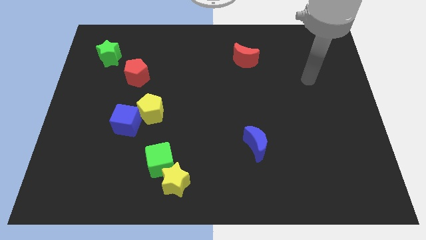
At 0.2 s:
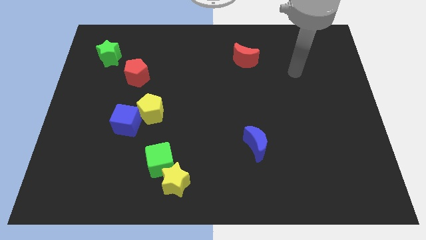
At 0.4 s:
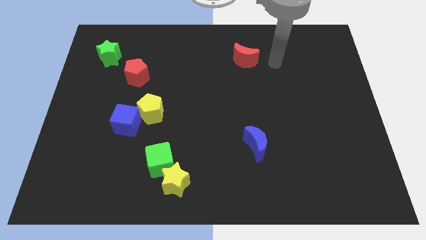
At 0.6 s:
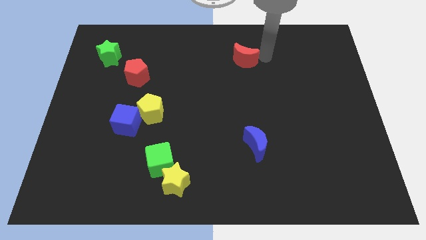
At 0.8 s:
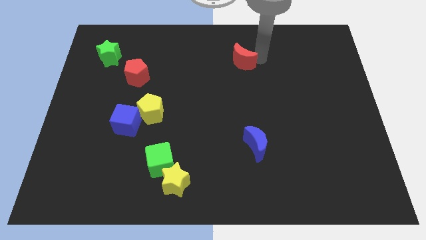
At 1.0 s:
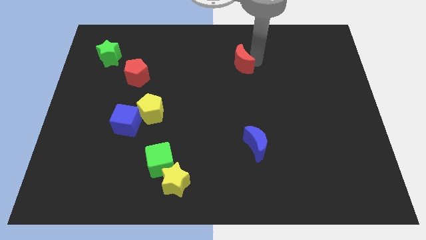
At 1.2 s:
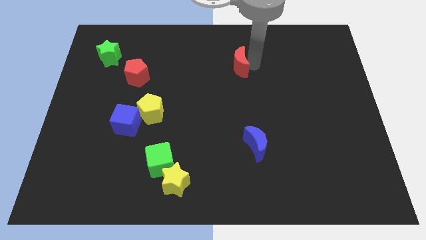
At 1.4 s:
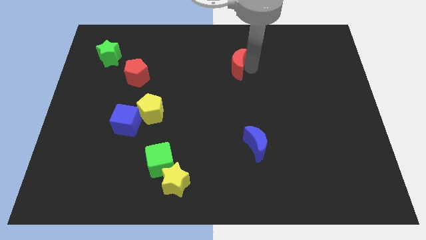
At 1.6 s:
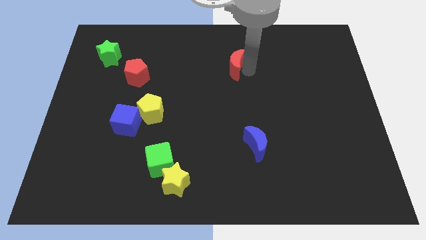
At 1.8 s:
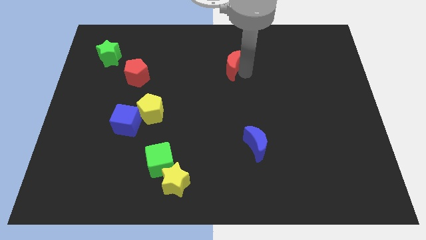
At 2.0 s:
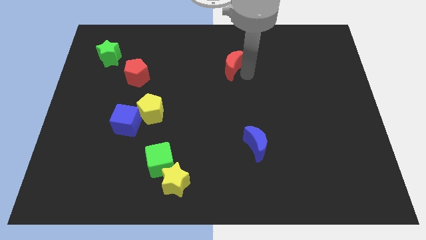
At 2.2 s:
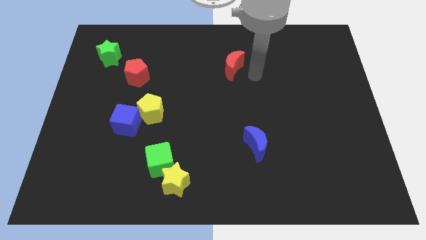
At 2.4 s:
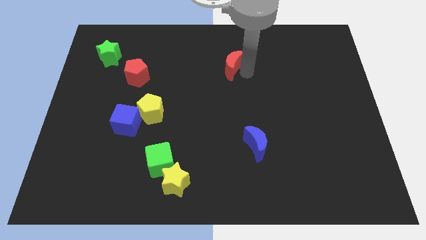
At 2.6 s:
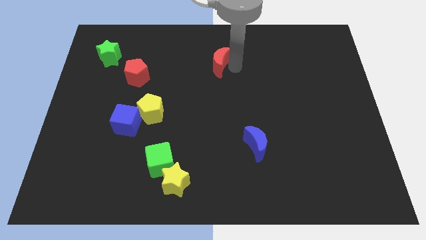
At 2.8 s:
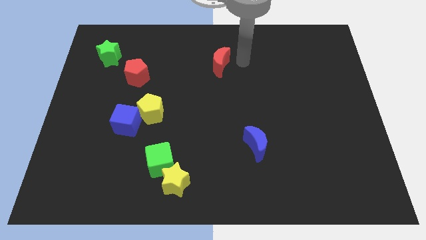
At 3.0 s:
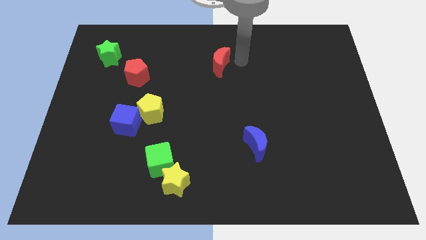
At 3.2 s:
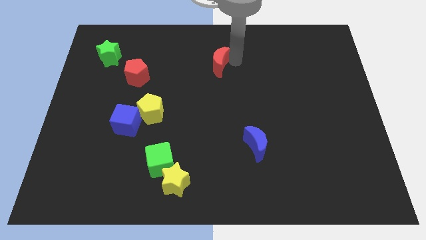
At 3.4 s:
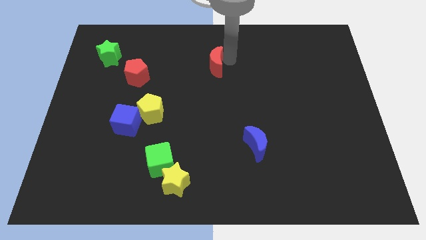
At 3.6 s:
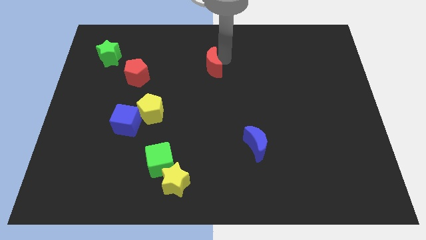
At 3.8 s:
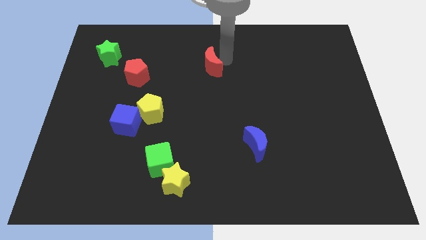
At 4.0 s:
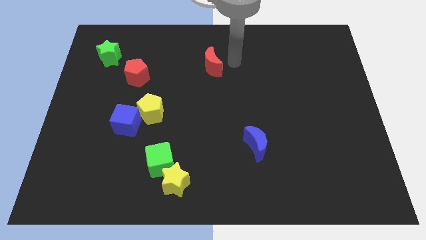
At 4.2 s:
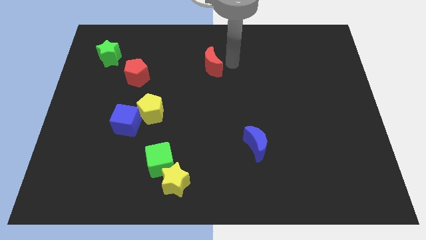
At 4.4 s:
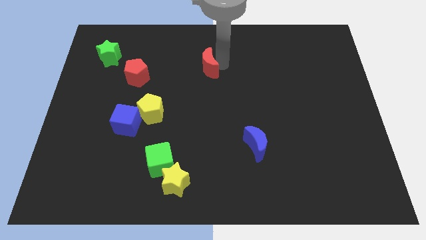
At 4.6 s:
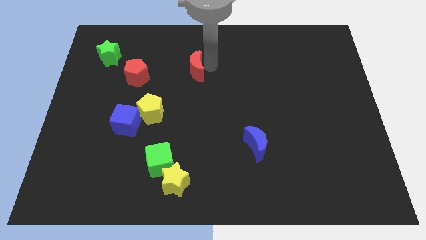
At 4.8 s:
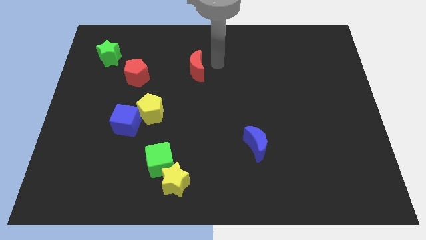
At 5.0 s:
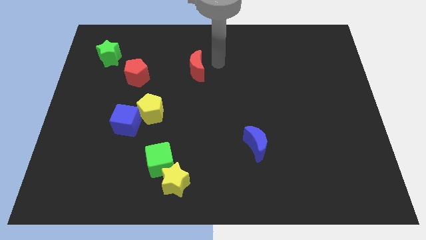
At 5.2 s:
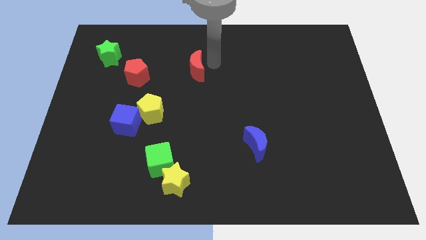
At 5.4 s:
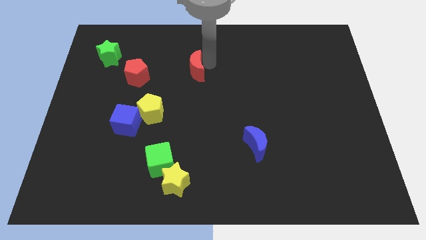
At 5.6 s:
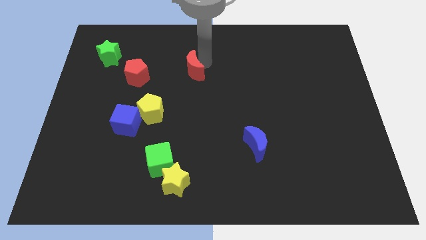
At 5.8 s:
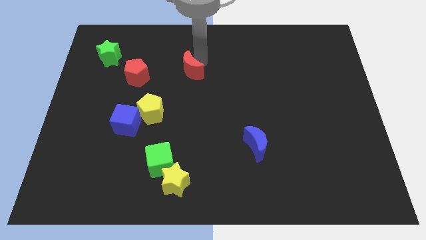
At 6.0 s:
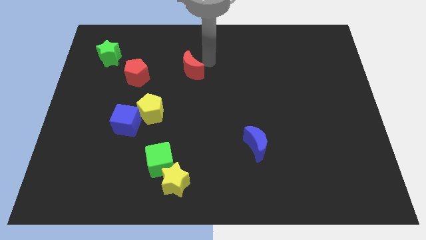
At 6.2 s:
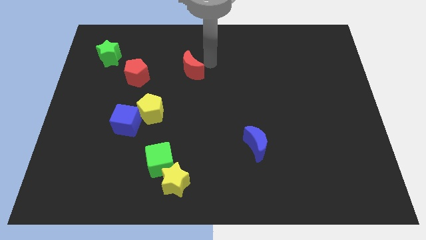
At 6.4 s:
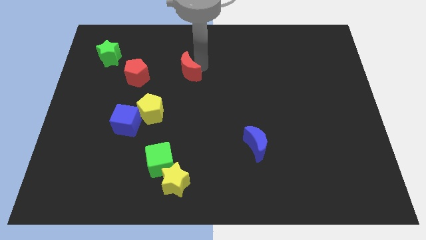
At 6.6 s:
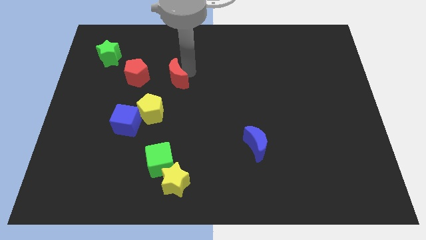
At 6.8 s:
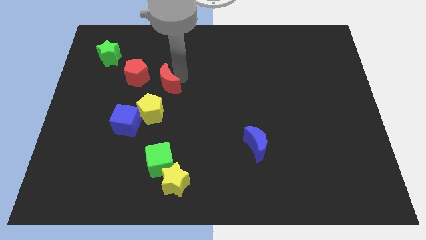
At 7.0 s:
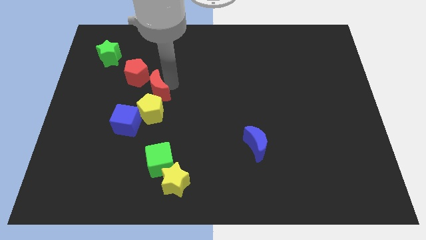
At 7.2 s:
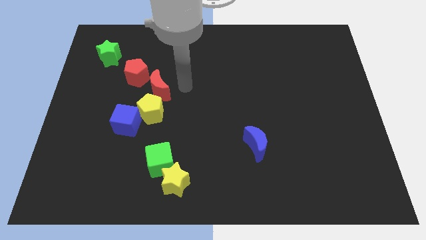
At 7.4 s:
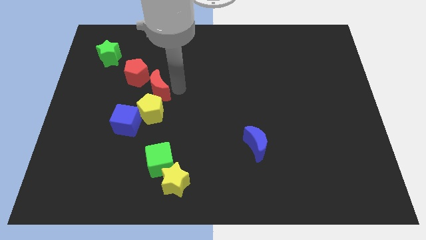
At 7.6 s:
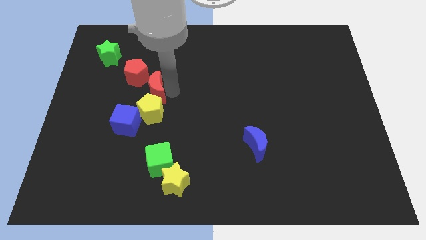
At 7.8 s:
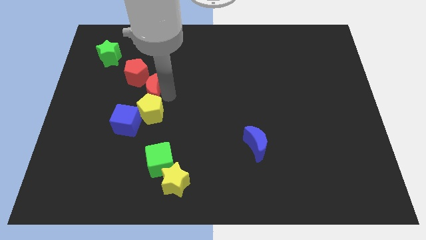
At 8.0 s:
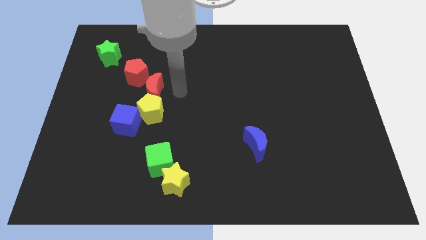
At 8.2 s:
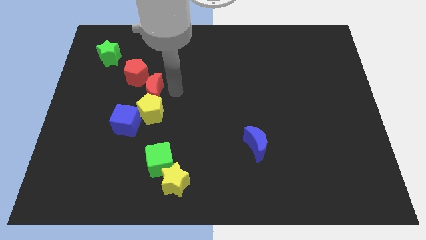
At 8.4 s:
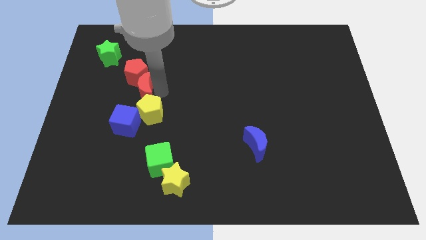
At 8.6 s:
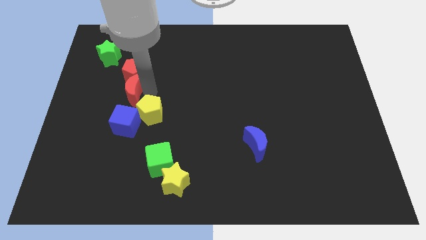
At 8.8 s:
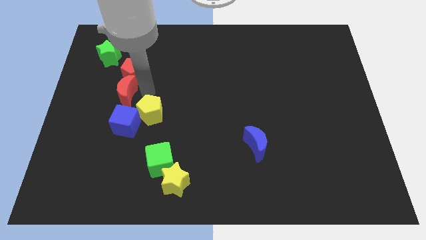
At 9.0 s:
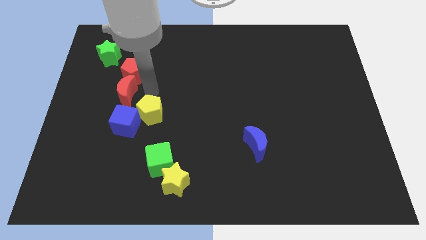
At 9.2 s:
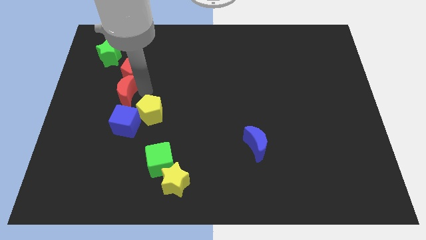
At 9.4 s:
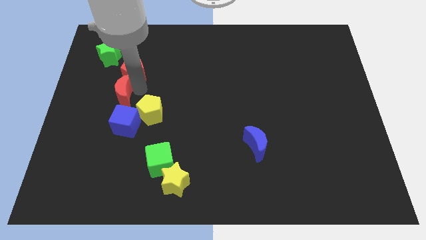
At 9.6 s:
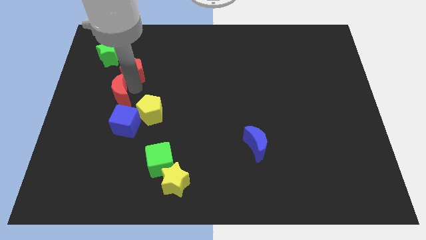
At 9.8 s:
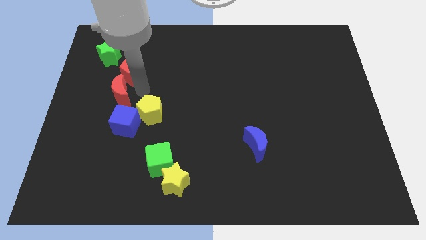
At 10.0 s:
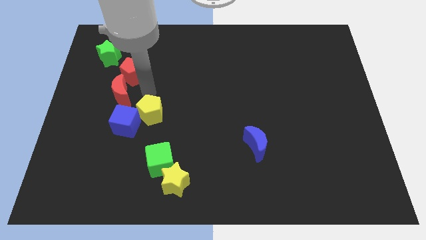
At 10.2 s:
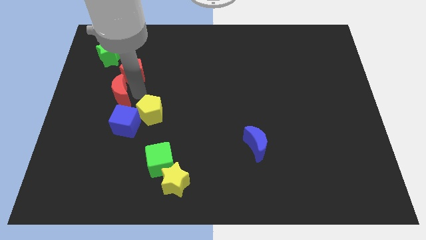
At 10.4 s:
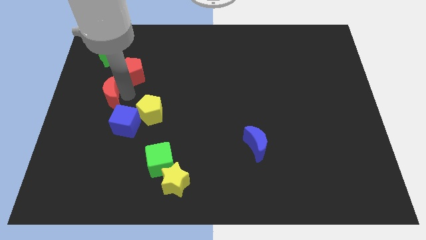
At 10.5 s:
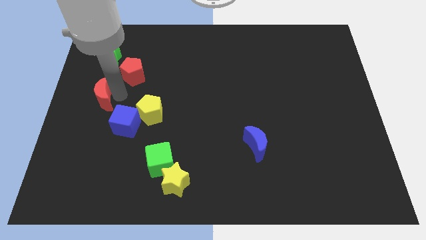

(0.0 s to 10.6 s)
put the red moon to the center left

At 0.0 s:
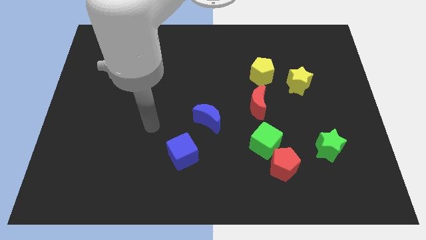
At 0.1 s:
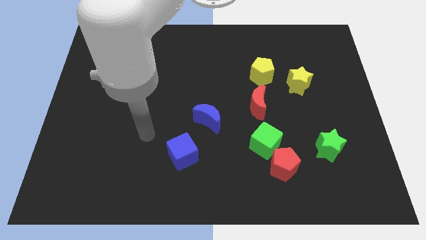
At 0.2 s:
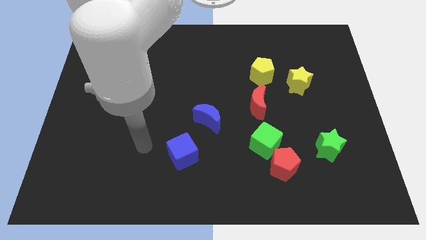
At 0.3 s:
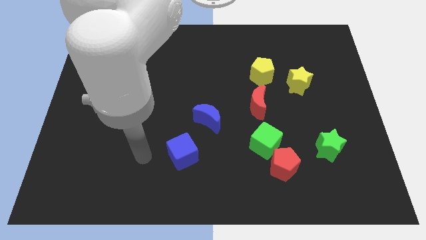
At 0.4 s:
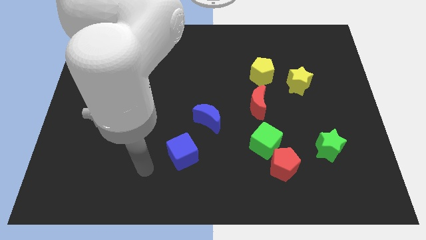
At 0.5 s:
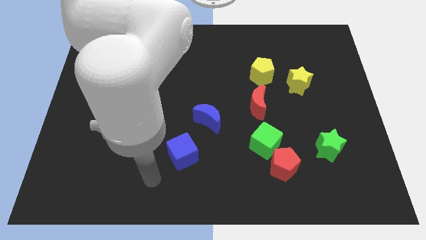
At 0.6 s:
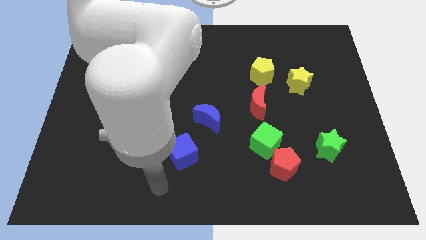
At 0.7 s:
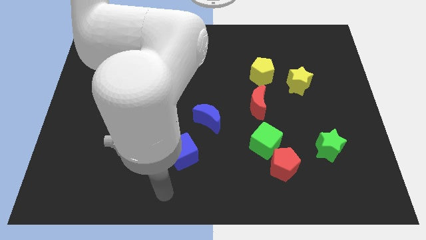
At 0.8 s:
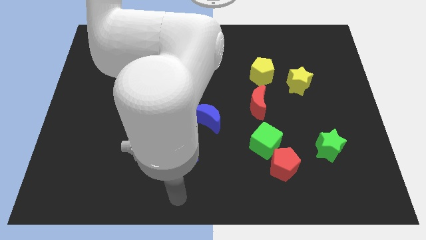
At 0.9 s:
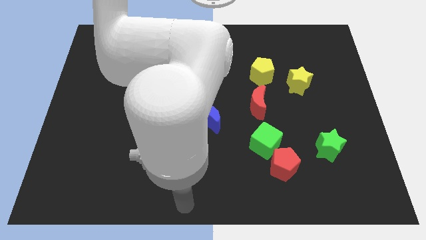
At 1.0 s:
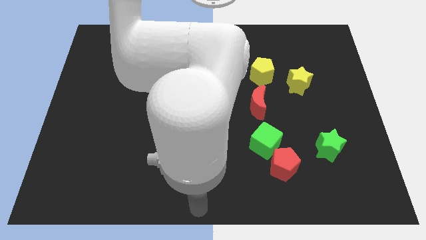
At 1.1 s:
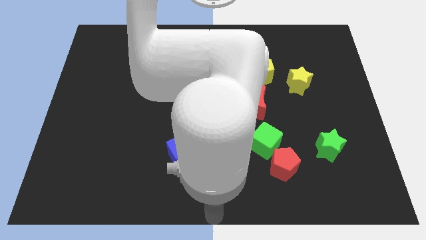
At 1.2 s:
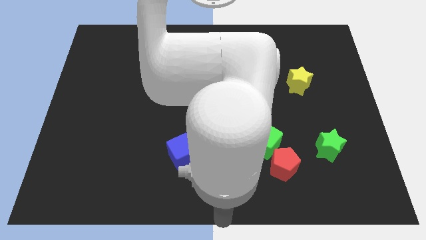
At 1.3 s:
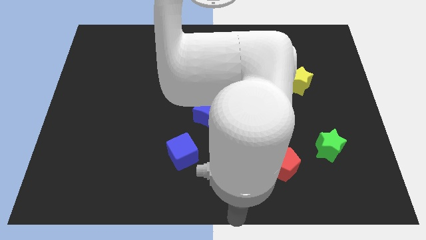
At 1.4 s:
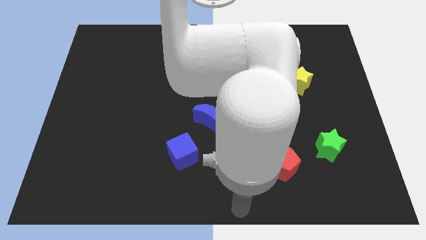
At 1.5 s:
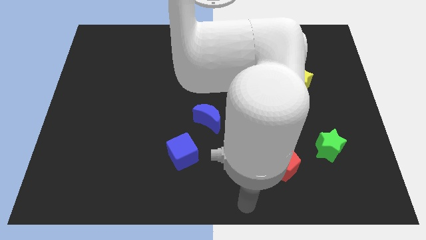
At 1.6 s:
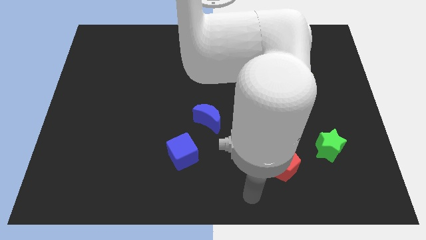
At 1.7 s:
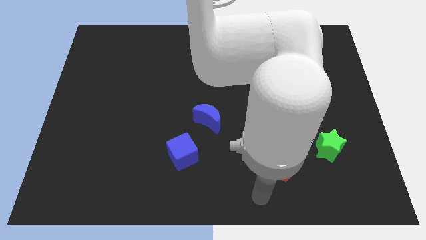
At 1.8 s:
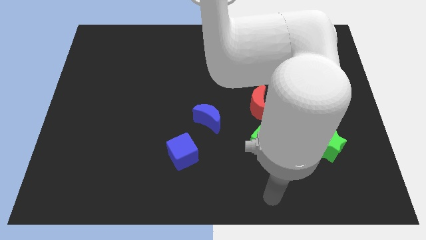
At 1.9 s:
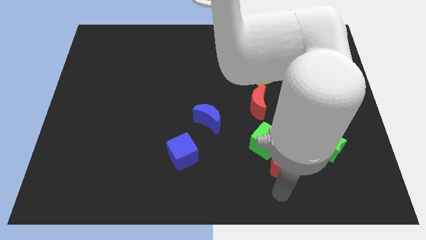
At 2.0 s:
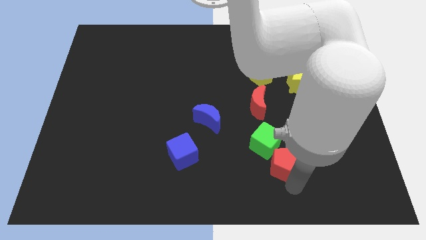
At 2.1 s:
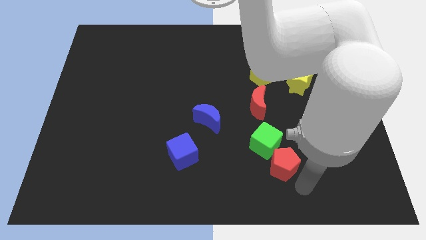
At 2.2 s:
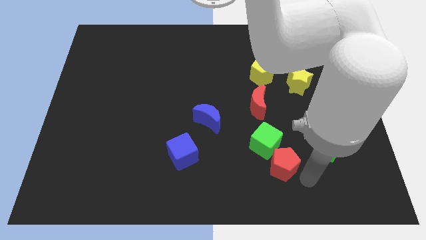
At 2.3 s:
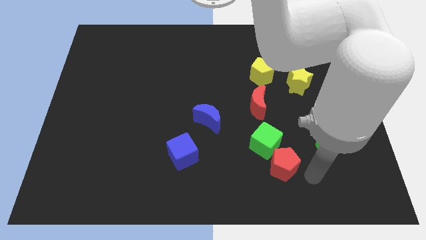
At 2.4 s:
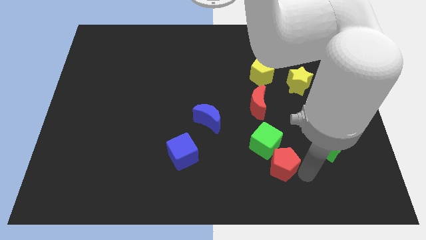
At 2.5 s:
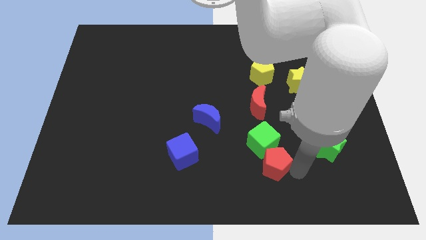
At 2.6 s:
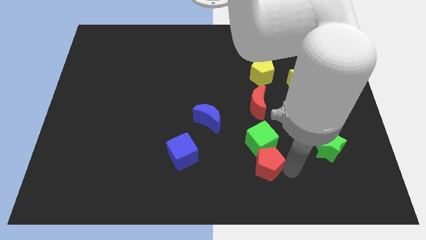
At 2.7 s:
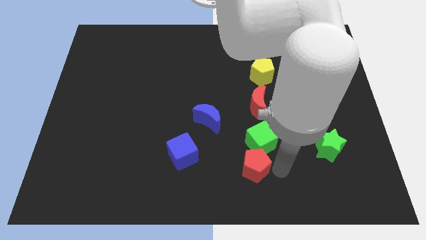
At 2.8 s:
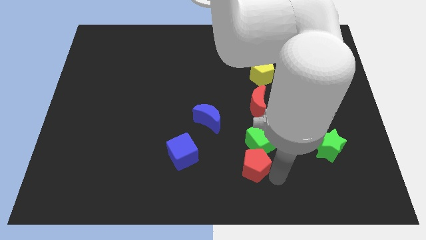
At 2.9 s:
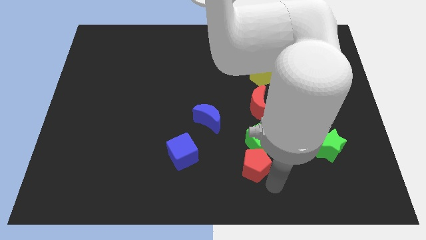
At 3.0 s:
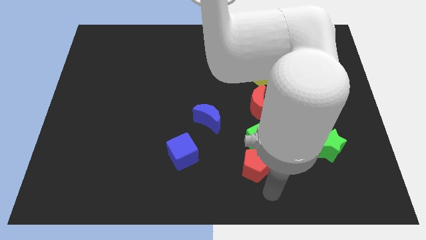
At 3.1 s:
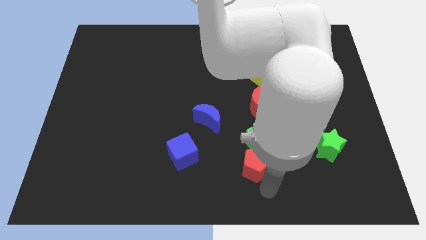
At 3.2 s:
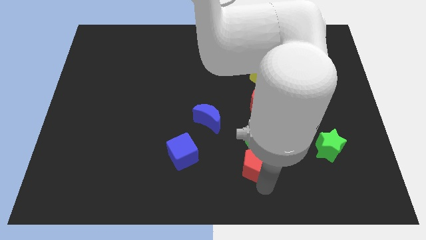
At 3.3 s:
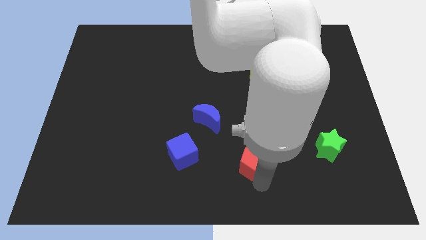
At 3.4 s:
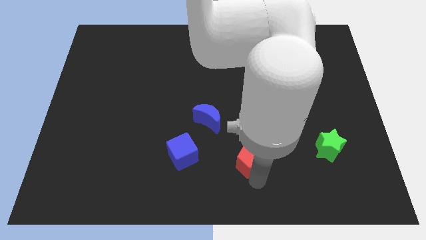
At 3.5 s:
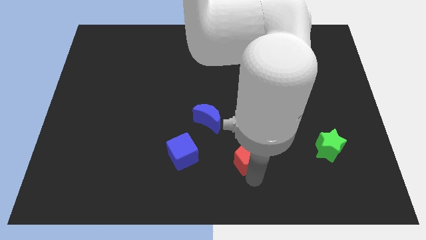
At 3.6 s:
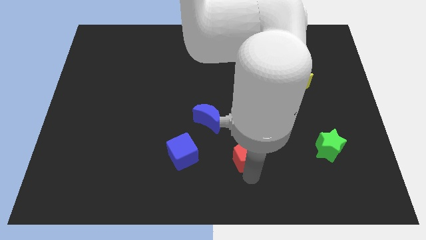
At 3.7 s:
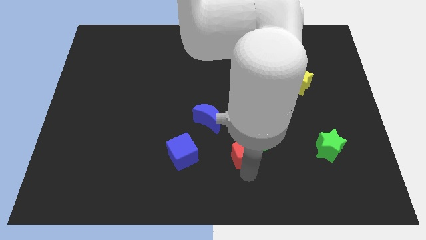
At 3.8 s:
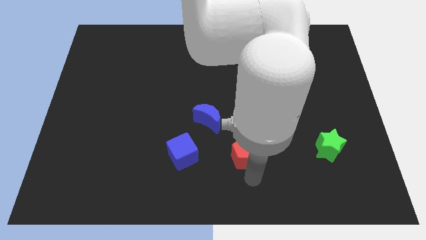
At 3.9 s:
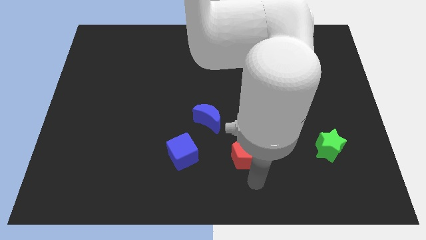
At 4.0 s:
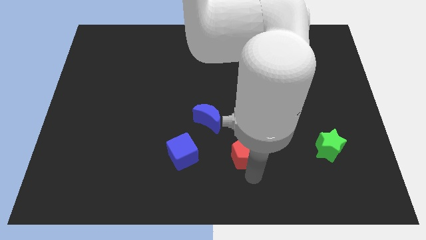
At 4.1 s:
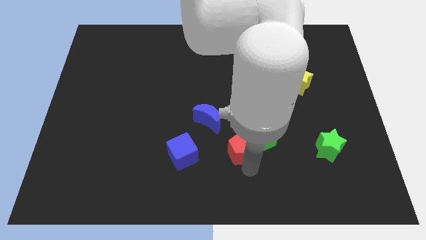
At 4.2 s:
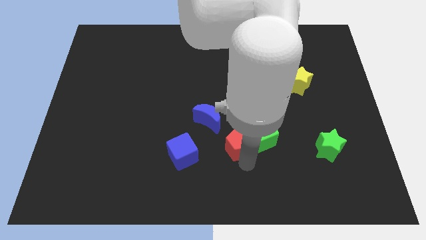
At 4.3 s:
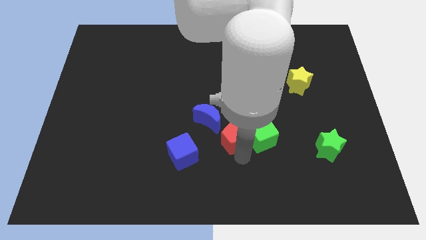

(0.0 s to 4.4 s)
push the red pentagon to the center
